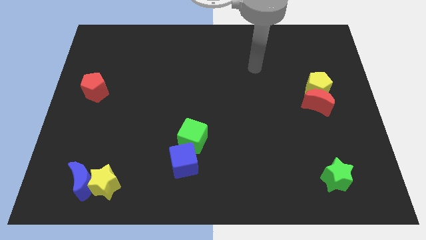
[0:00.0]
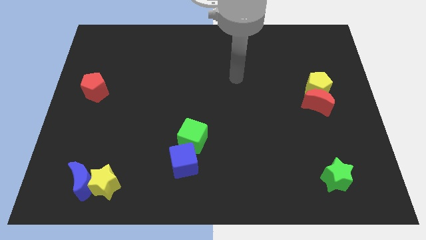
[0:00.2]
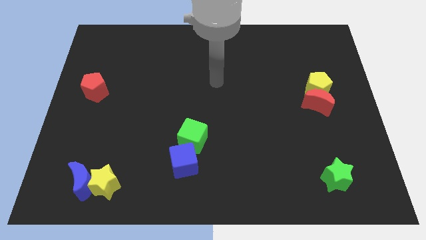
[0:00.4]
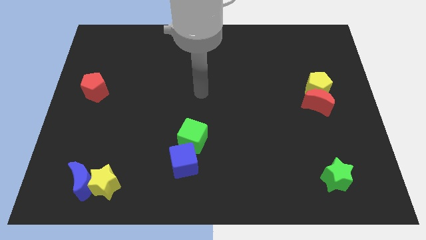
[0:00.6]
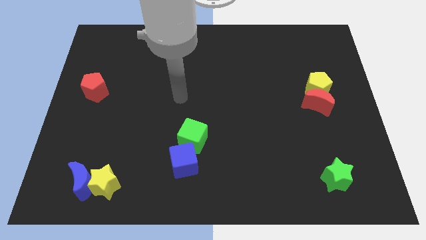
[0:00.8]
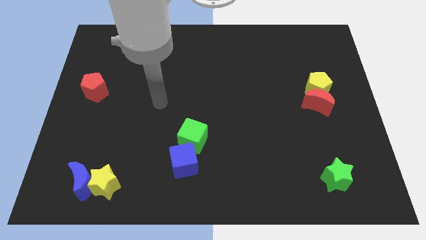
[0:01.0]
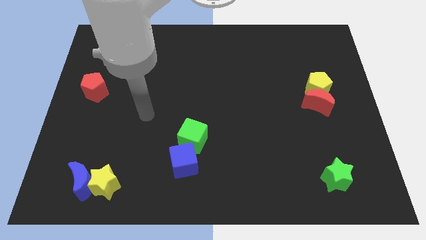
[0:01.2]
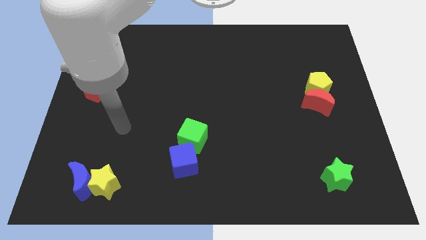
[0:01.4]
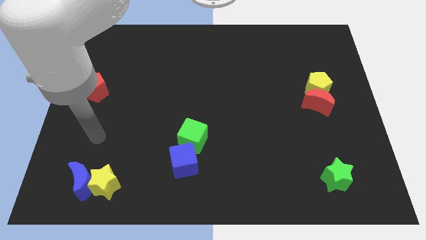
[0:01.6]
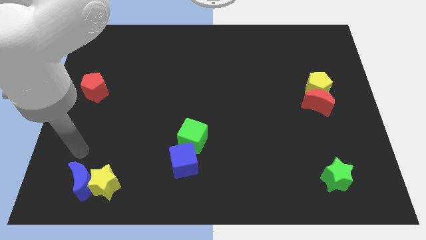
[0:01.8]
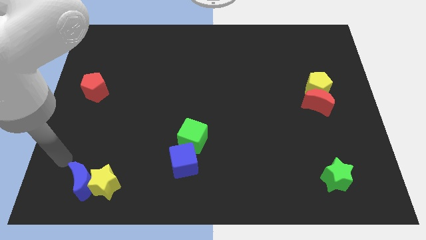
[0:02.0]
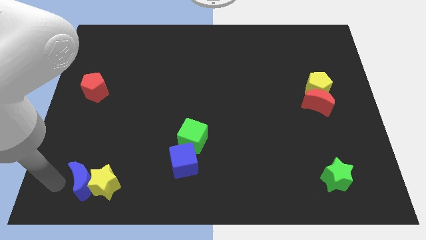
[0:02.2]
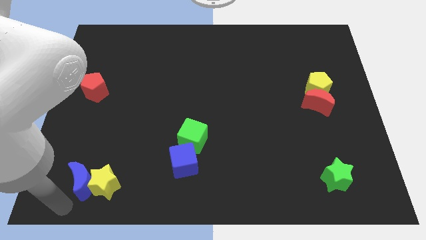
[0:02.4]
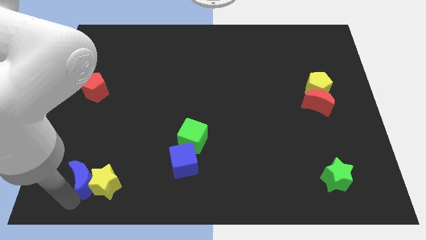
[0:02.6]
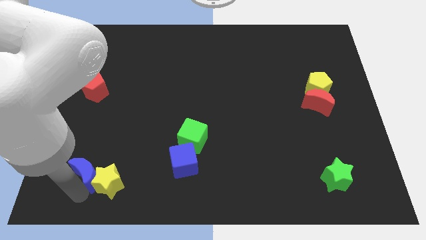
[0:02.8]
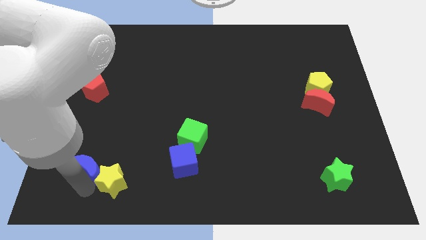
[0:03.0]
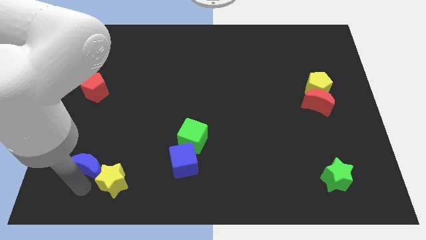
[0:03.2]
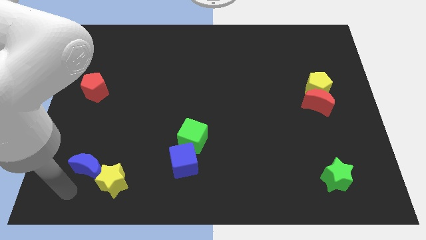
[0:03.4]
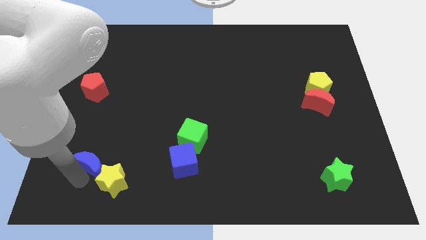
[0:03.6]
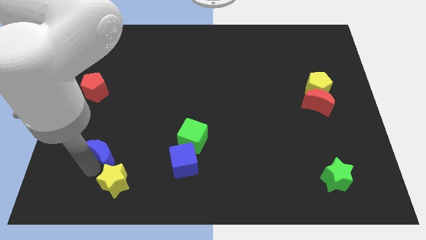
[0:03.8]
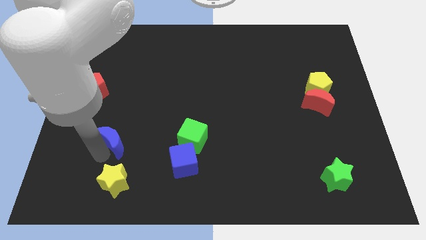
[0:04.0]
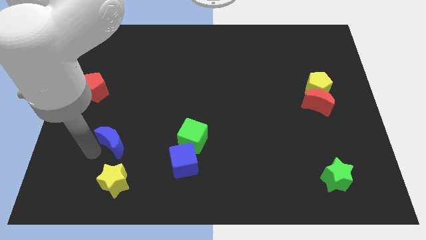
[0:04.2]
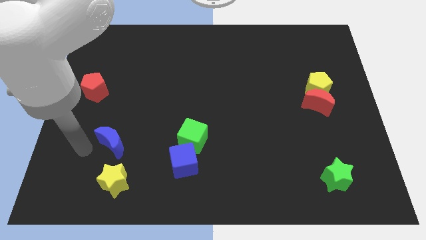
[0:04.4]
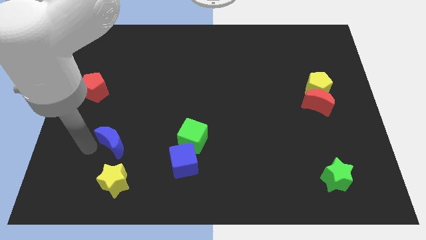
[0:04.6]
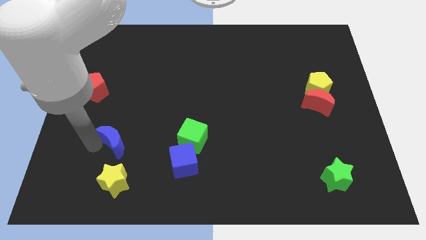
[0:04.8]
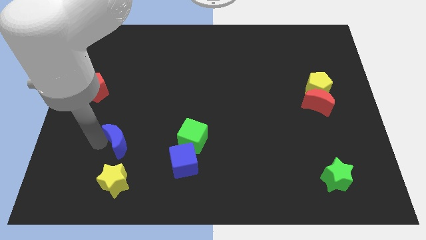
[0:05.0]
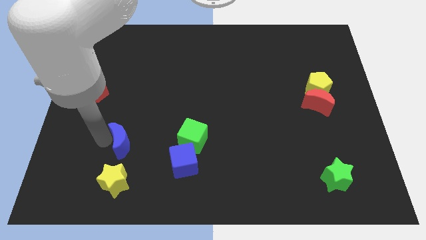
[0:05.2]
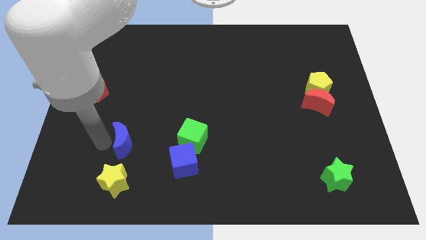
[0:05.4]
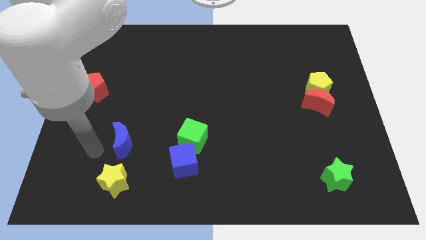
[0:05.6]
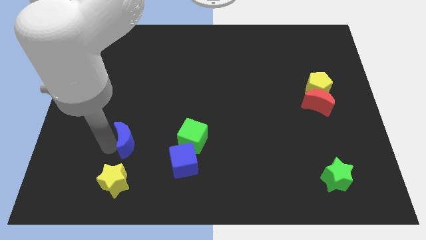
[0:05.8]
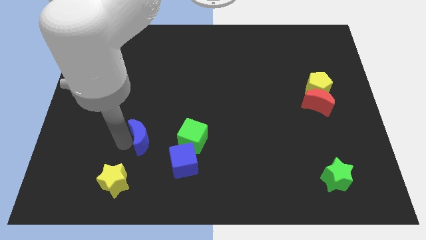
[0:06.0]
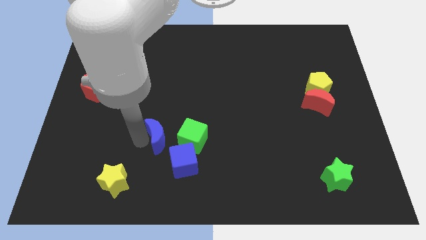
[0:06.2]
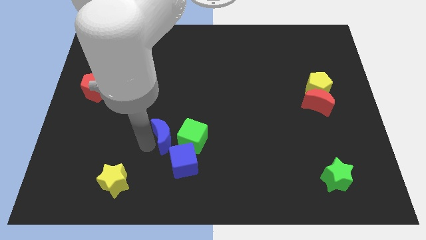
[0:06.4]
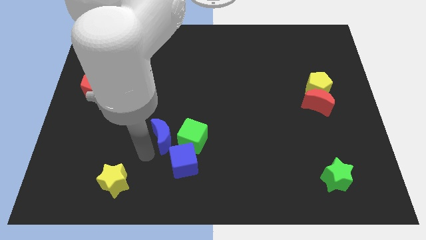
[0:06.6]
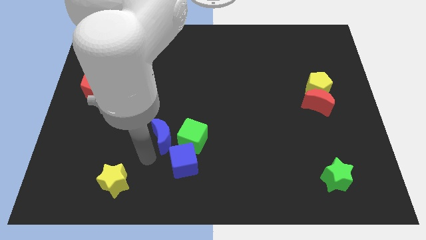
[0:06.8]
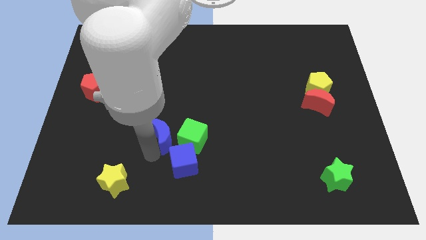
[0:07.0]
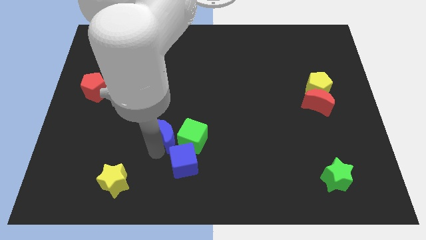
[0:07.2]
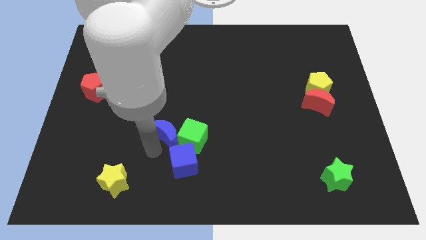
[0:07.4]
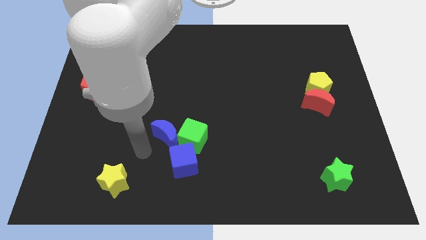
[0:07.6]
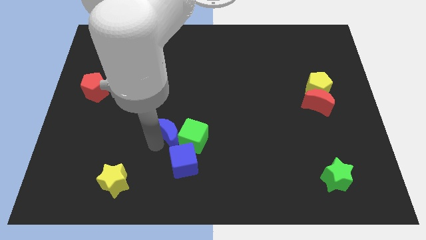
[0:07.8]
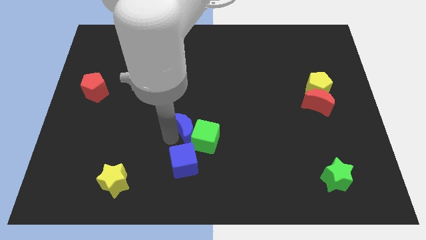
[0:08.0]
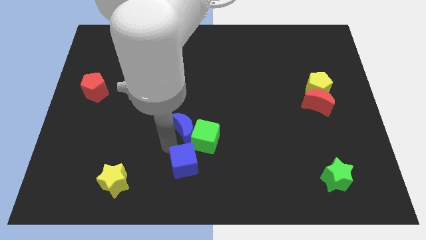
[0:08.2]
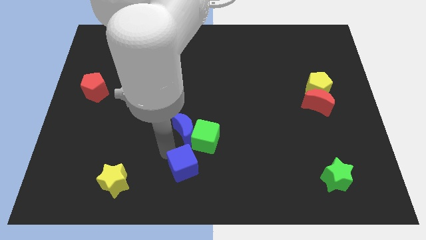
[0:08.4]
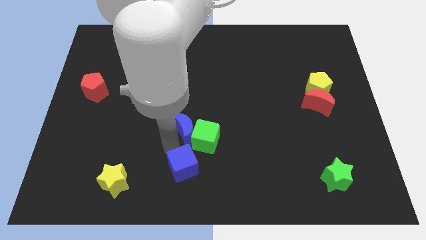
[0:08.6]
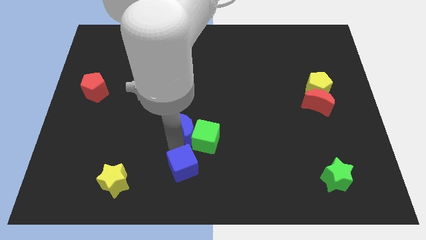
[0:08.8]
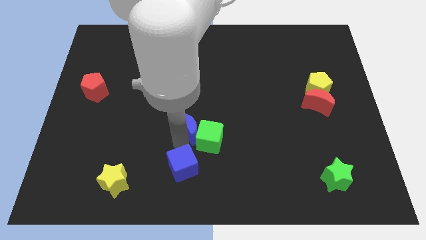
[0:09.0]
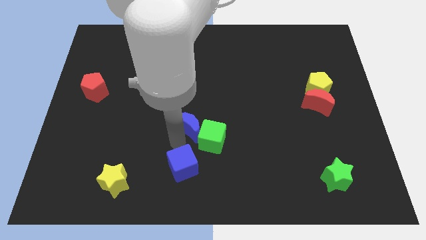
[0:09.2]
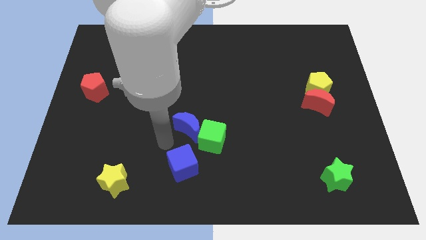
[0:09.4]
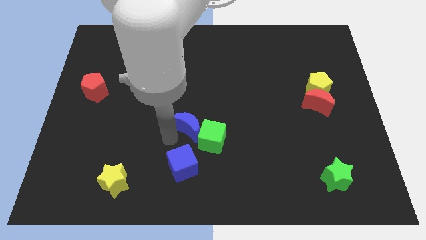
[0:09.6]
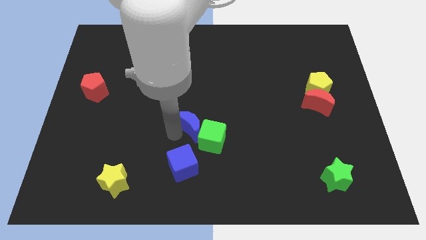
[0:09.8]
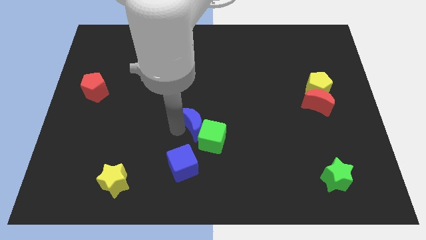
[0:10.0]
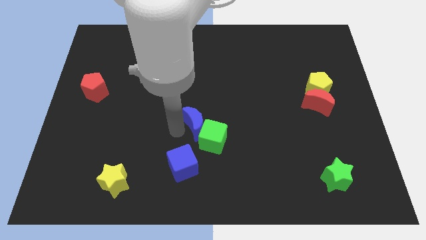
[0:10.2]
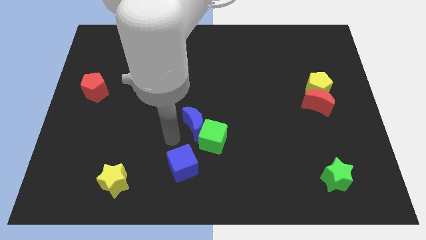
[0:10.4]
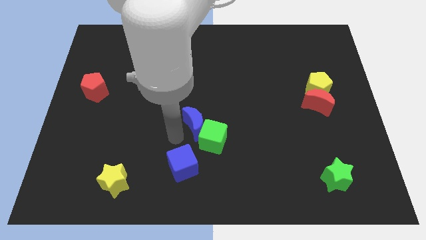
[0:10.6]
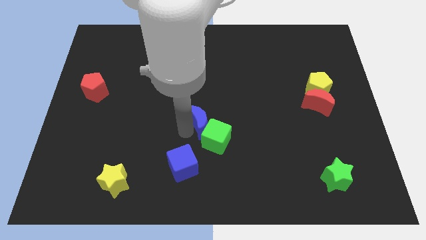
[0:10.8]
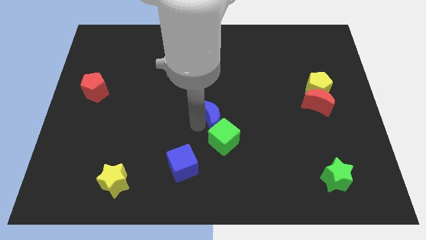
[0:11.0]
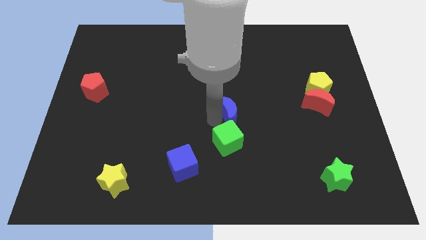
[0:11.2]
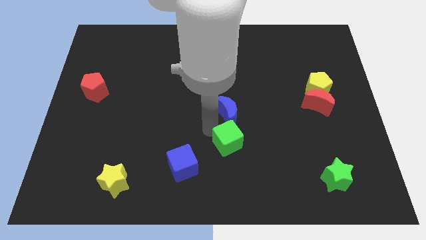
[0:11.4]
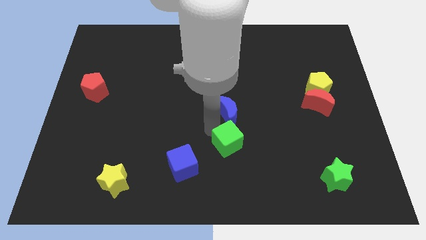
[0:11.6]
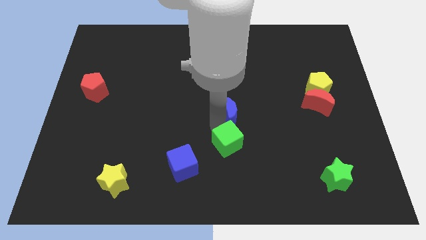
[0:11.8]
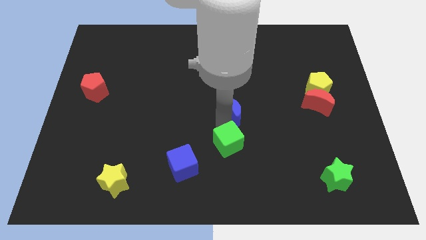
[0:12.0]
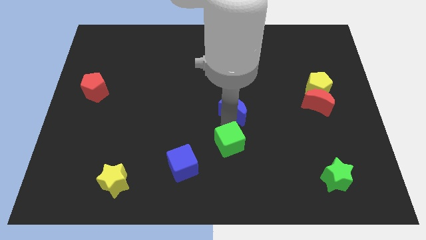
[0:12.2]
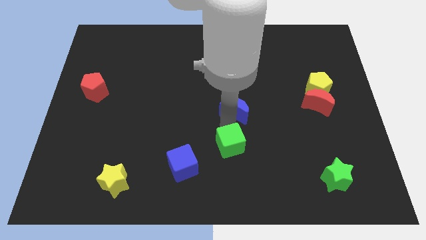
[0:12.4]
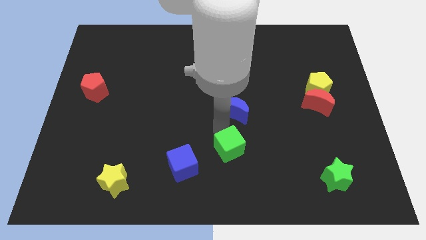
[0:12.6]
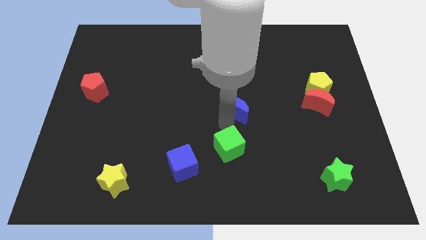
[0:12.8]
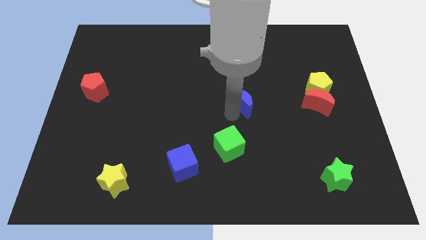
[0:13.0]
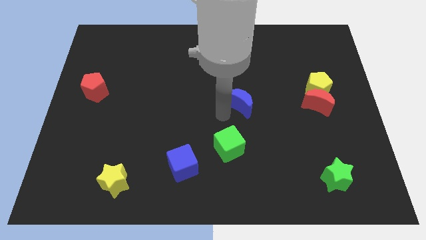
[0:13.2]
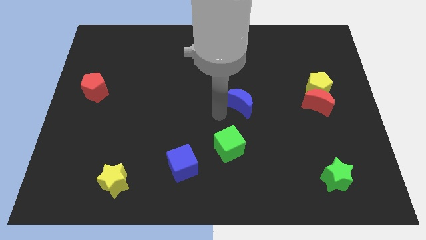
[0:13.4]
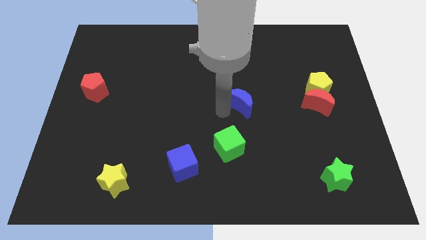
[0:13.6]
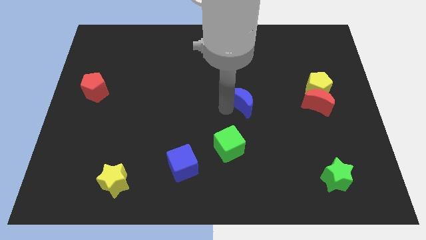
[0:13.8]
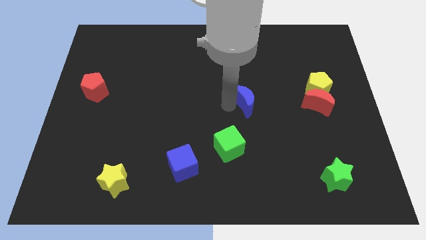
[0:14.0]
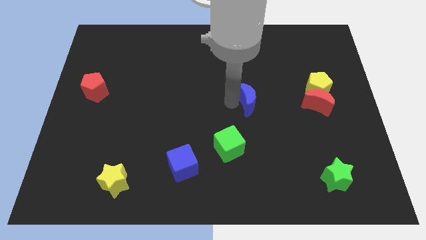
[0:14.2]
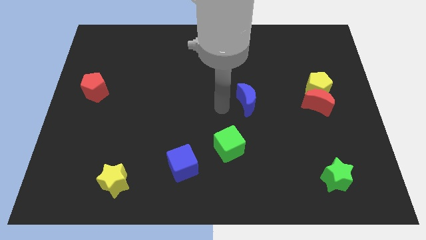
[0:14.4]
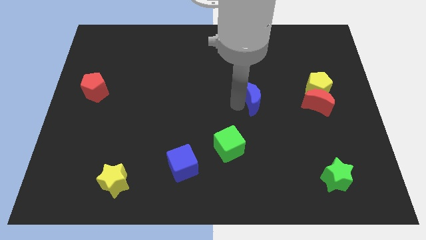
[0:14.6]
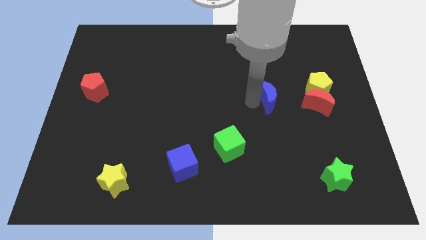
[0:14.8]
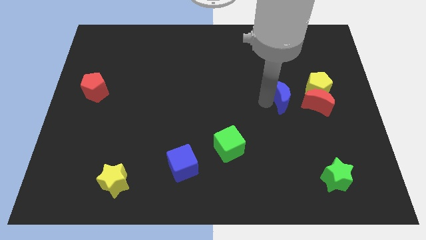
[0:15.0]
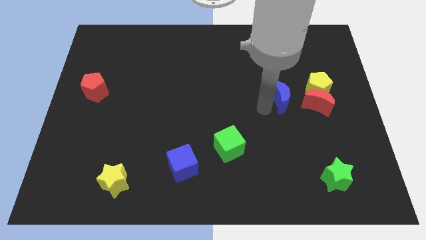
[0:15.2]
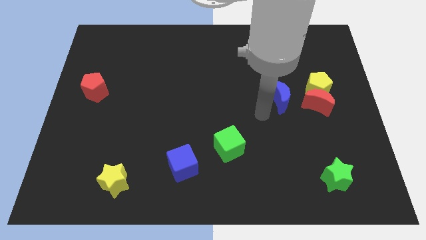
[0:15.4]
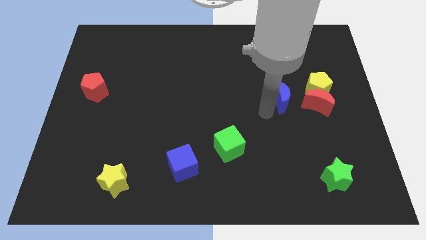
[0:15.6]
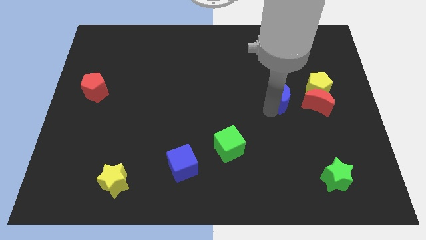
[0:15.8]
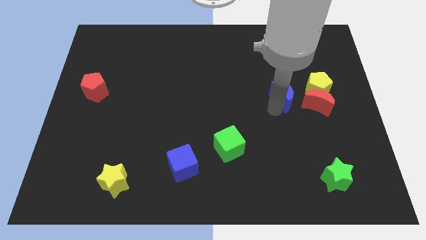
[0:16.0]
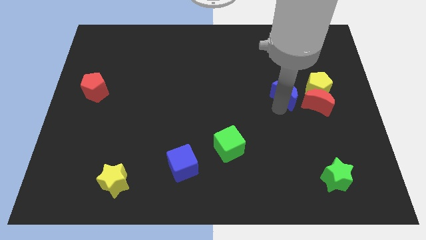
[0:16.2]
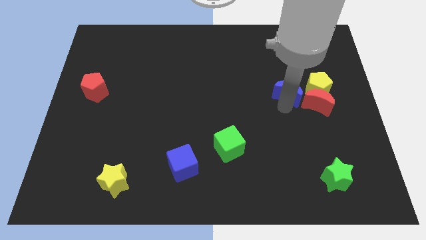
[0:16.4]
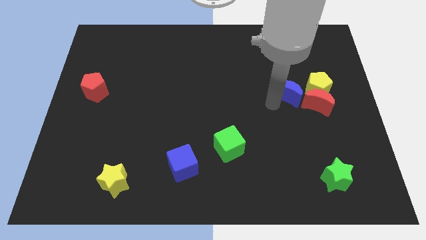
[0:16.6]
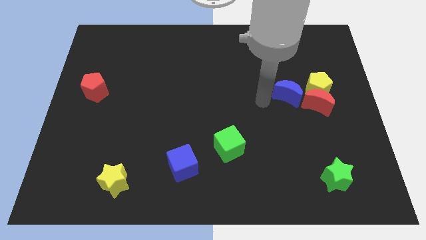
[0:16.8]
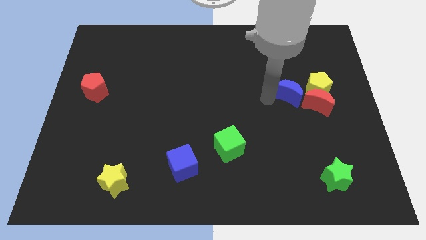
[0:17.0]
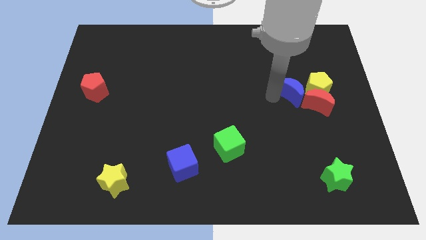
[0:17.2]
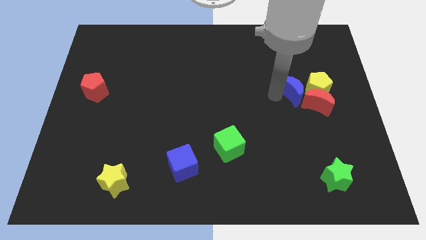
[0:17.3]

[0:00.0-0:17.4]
put the blue moon towards the yellow pentagon
